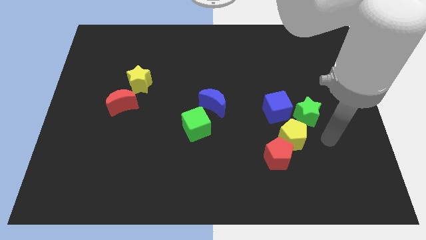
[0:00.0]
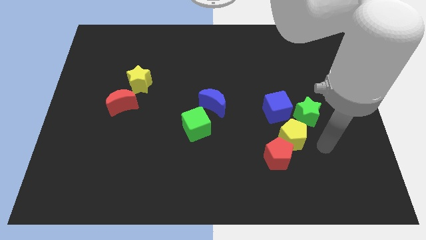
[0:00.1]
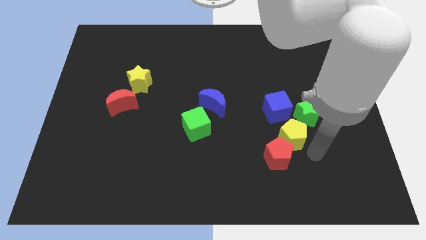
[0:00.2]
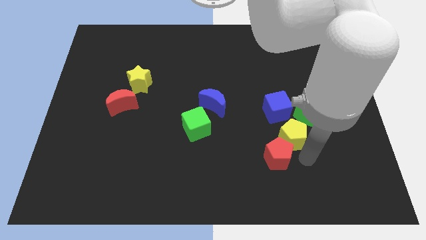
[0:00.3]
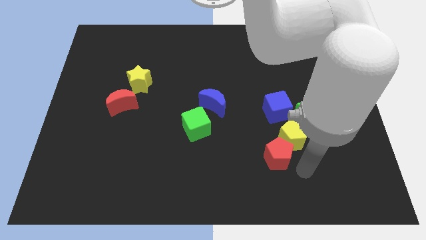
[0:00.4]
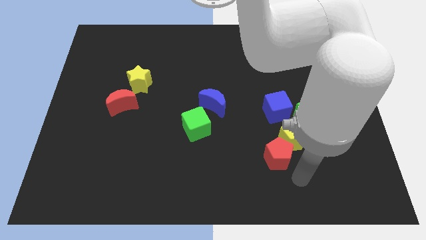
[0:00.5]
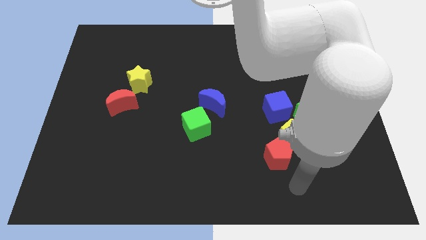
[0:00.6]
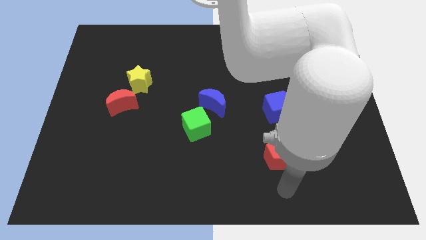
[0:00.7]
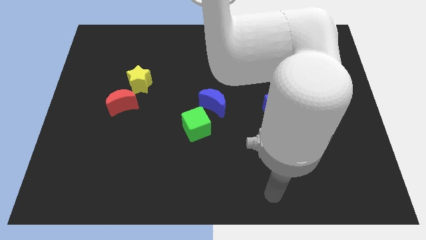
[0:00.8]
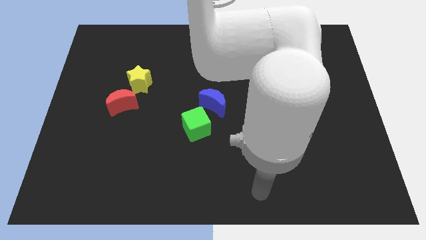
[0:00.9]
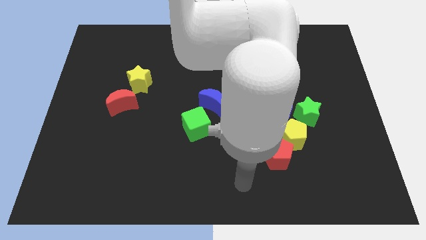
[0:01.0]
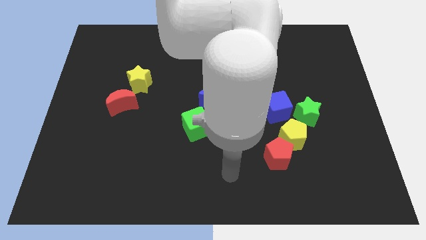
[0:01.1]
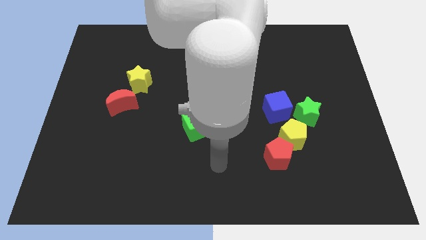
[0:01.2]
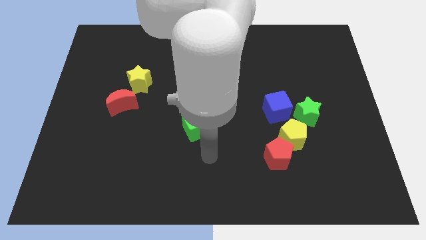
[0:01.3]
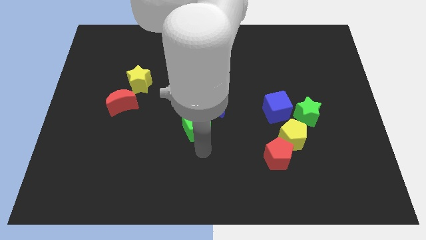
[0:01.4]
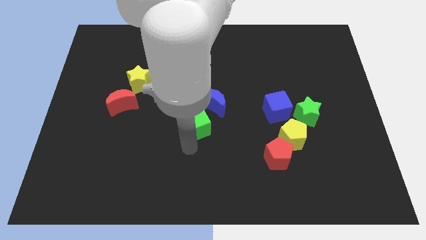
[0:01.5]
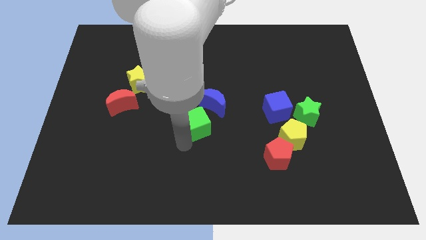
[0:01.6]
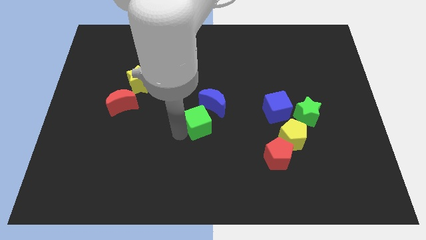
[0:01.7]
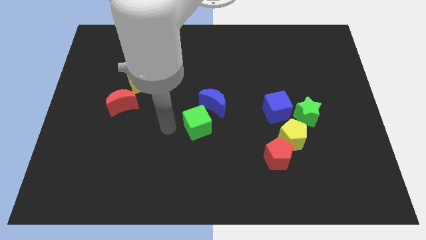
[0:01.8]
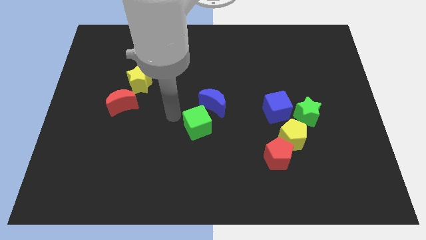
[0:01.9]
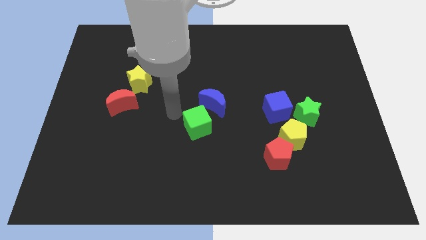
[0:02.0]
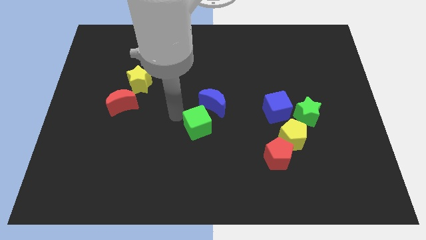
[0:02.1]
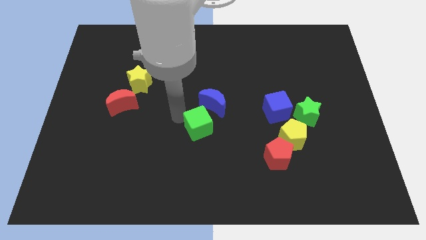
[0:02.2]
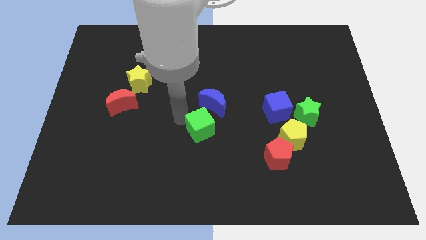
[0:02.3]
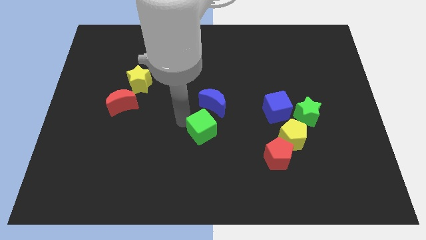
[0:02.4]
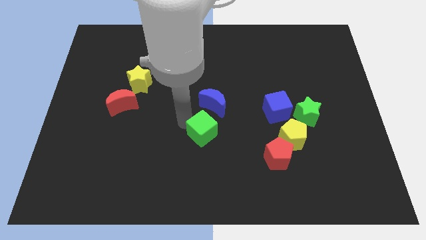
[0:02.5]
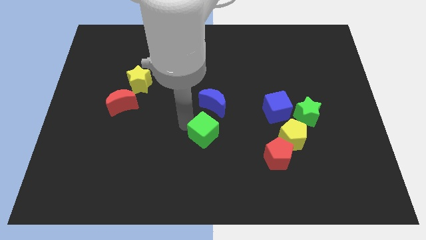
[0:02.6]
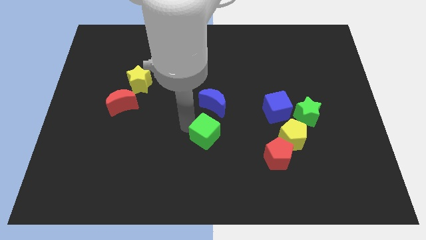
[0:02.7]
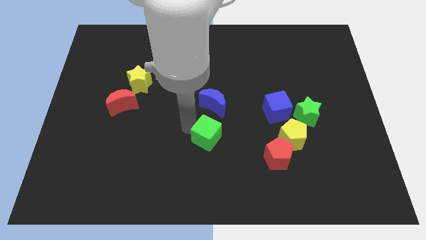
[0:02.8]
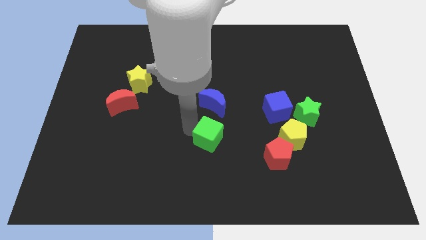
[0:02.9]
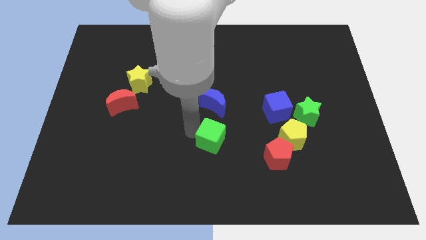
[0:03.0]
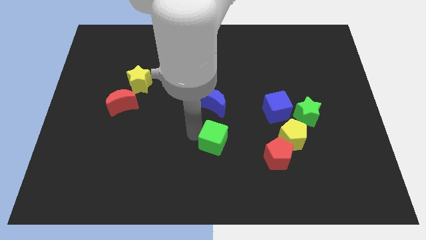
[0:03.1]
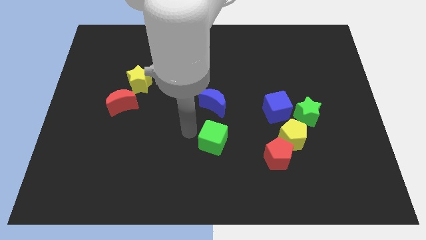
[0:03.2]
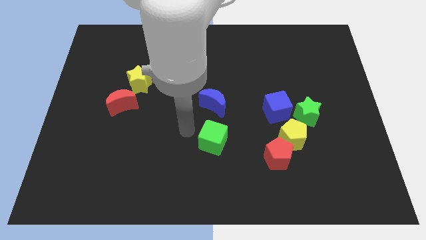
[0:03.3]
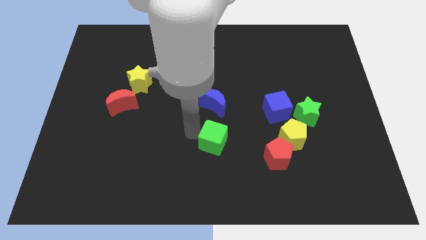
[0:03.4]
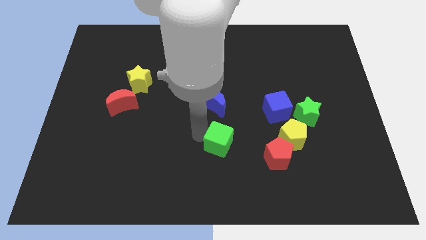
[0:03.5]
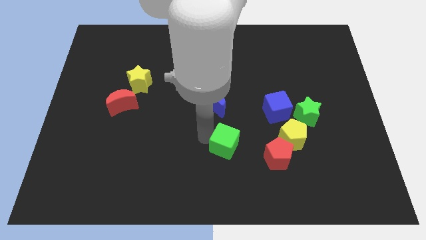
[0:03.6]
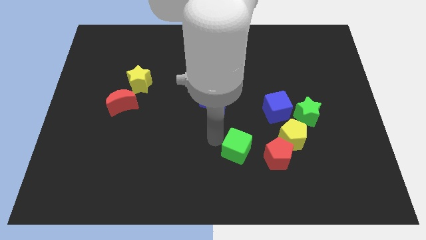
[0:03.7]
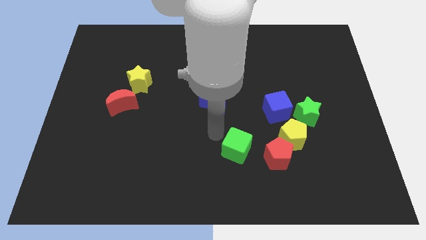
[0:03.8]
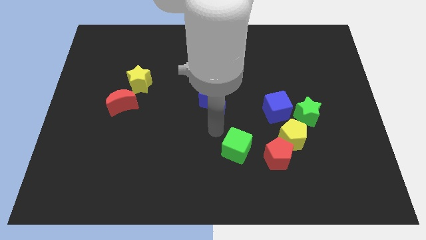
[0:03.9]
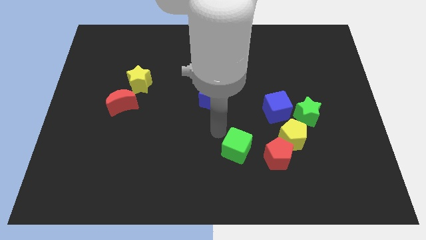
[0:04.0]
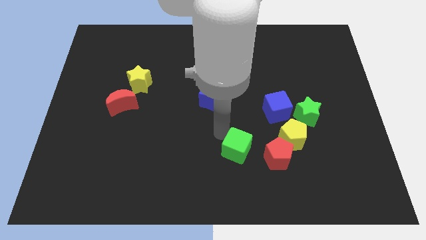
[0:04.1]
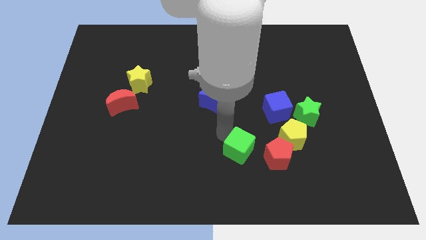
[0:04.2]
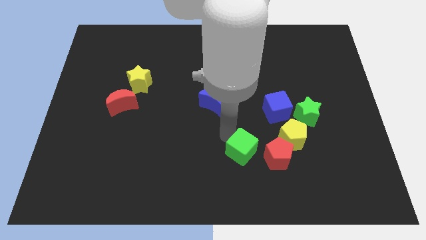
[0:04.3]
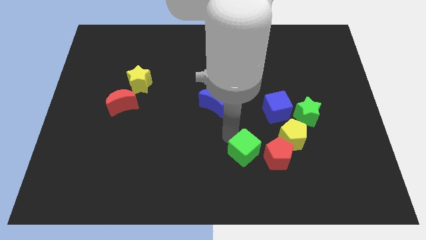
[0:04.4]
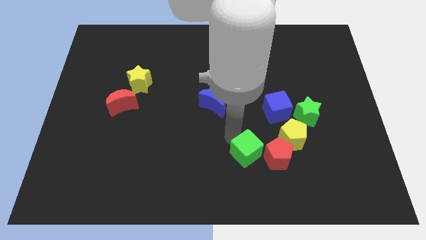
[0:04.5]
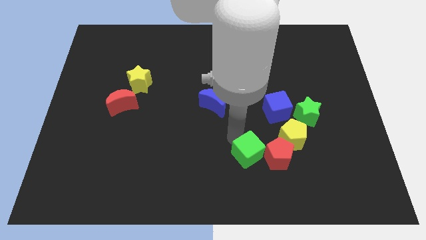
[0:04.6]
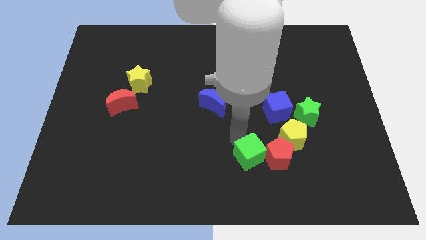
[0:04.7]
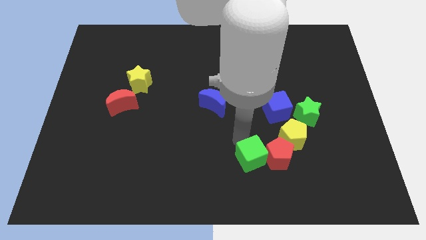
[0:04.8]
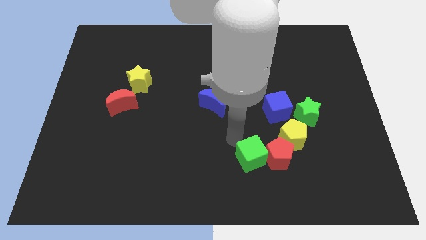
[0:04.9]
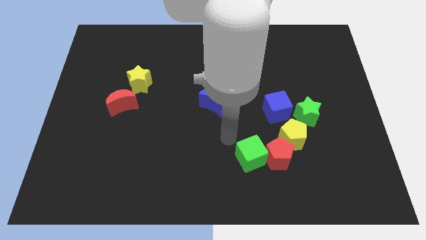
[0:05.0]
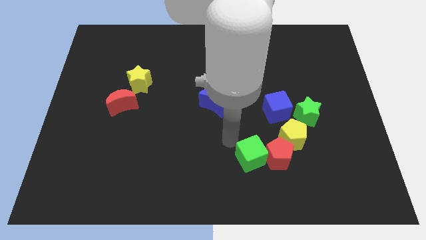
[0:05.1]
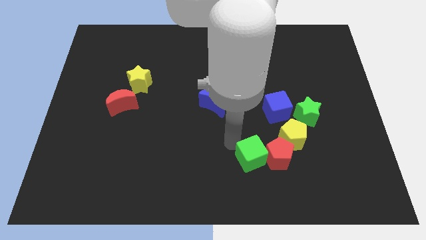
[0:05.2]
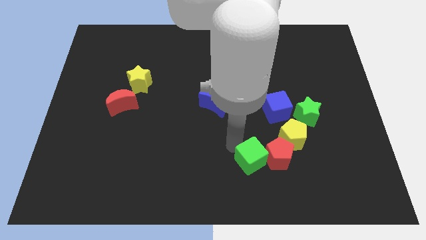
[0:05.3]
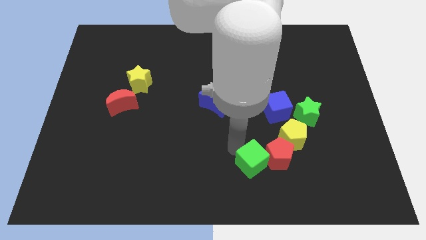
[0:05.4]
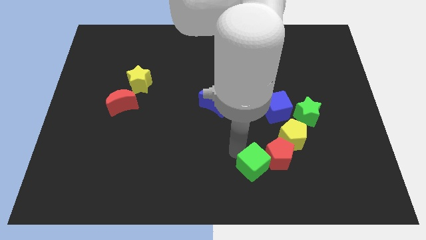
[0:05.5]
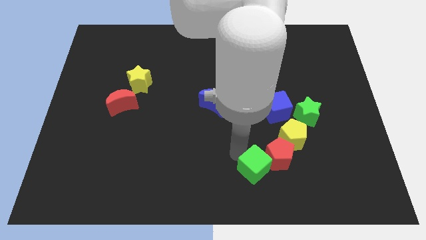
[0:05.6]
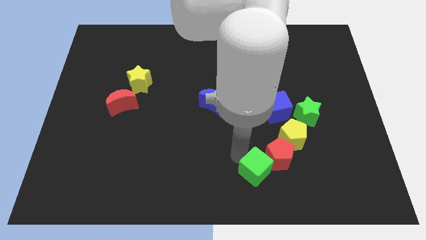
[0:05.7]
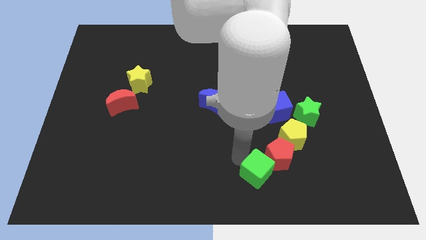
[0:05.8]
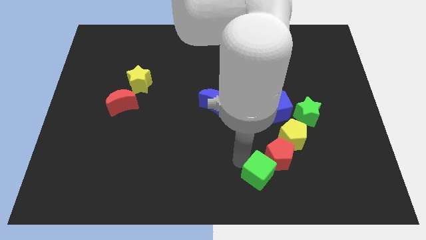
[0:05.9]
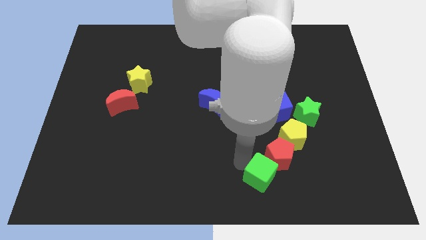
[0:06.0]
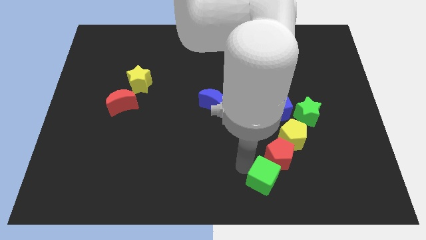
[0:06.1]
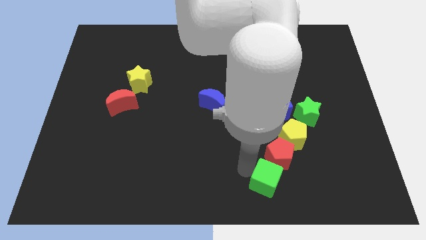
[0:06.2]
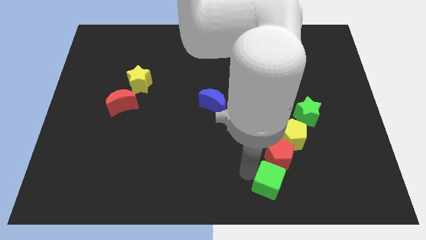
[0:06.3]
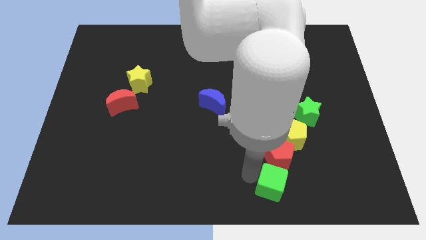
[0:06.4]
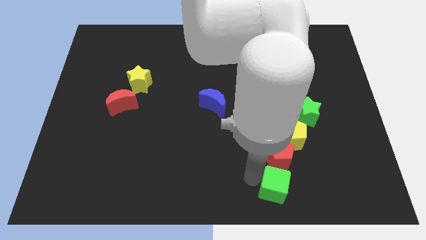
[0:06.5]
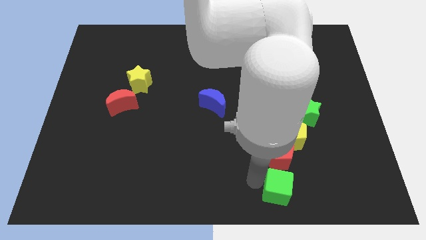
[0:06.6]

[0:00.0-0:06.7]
put the green cube to the bottom side of the yellow pentagon

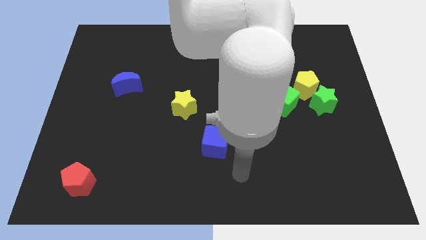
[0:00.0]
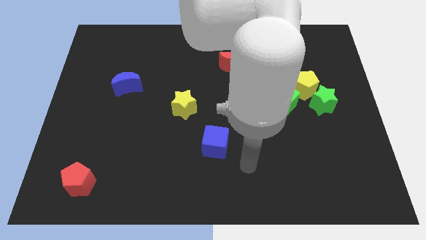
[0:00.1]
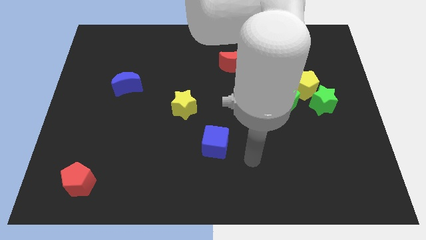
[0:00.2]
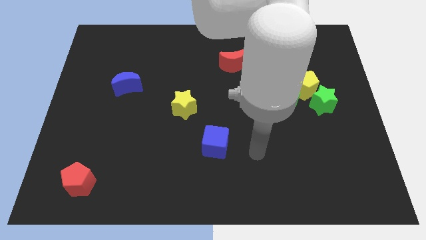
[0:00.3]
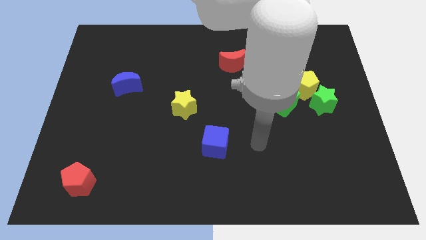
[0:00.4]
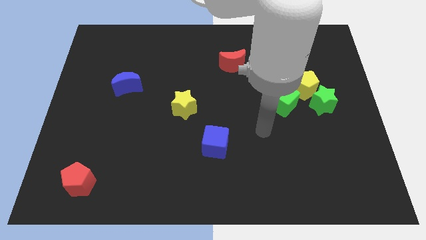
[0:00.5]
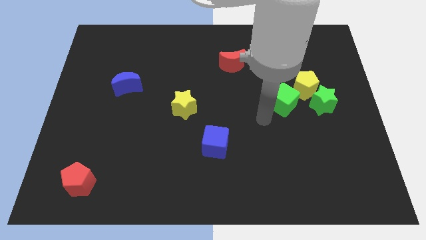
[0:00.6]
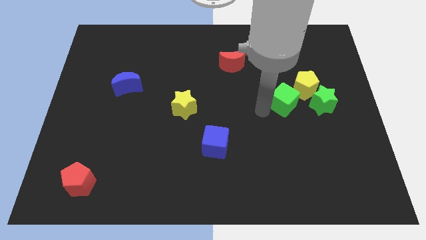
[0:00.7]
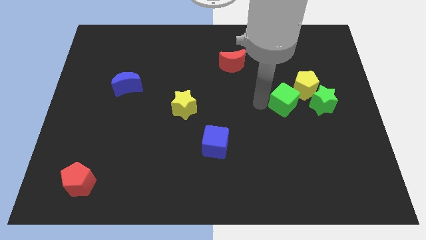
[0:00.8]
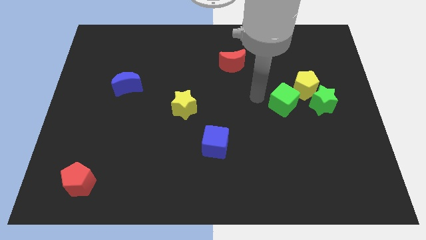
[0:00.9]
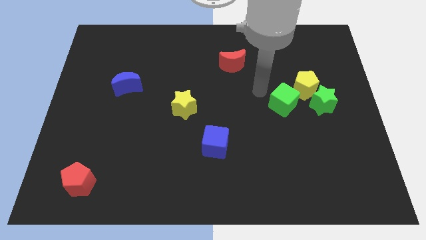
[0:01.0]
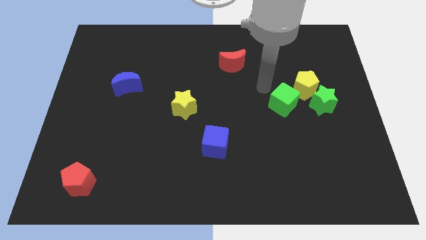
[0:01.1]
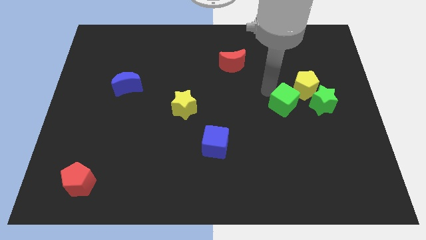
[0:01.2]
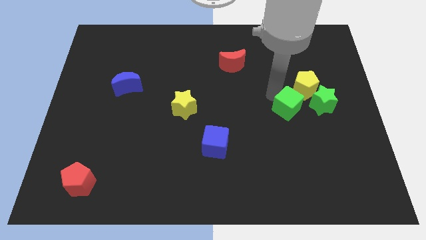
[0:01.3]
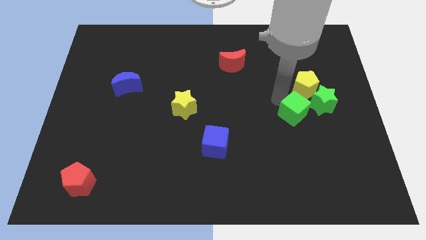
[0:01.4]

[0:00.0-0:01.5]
push the green cube to the bottom left of the green star
